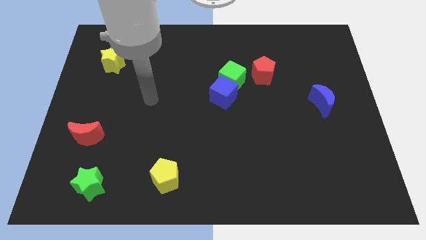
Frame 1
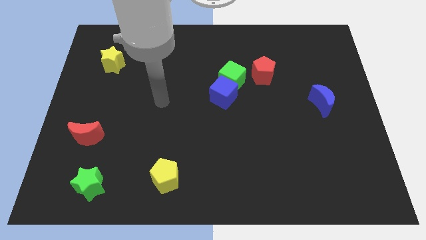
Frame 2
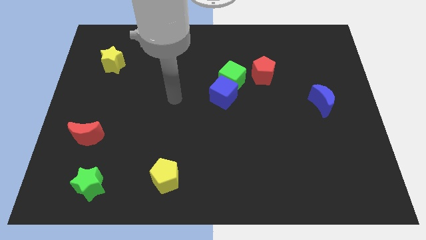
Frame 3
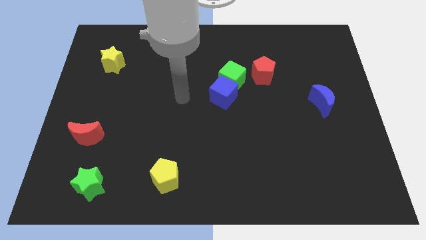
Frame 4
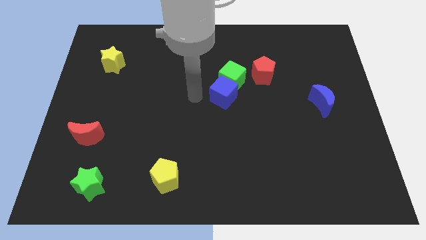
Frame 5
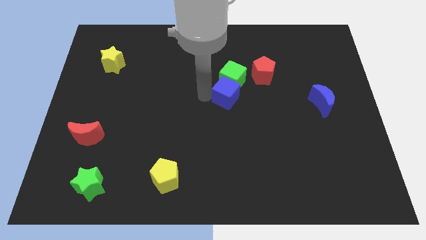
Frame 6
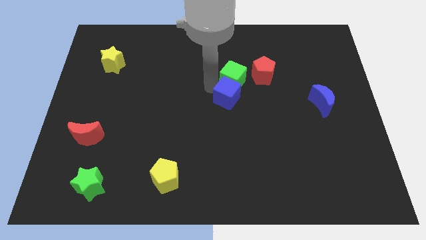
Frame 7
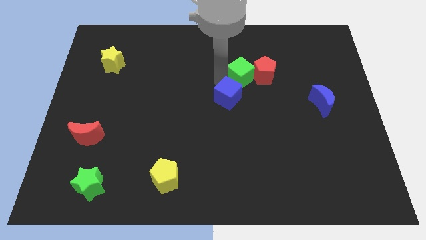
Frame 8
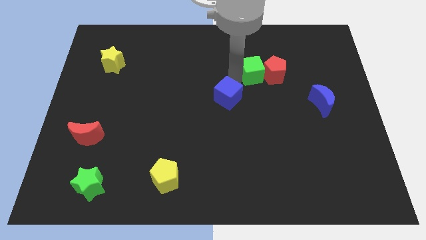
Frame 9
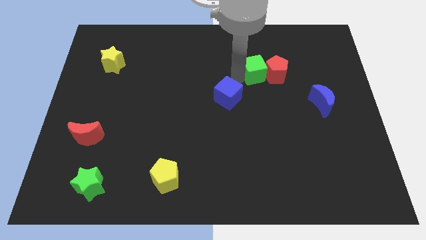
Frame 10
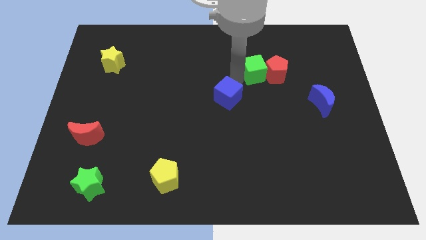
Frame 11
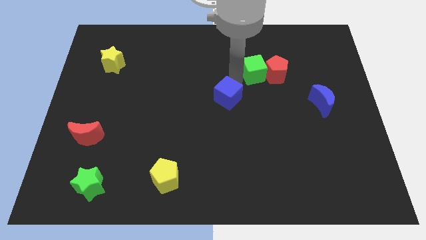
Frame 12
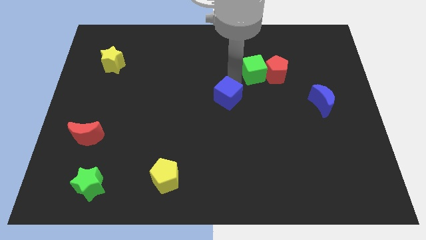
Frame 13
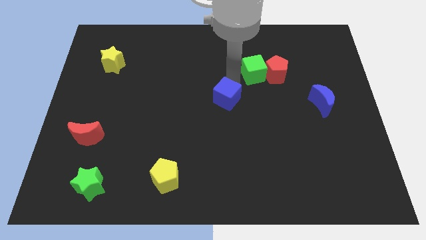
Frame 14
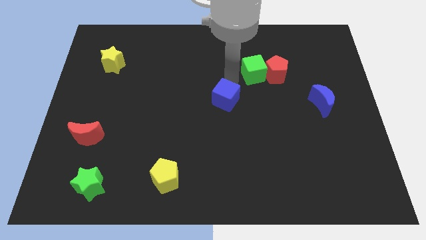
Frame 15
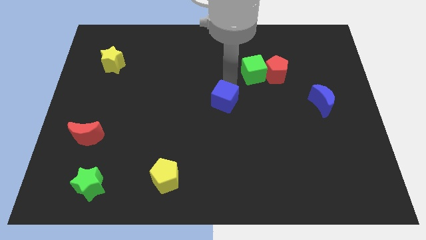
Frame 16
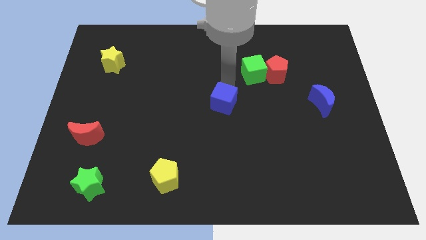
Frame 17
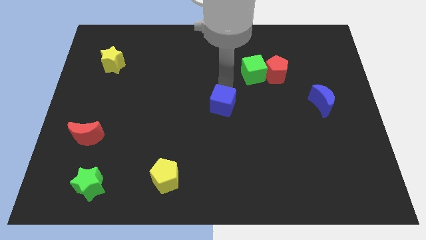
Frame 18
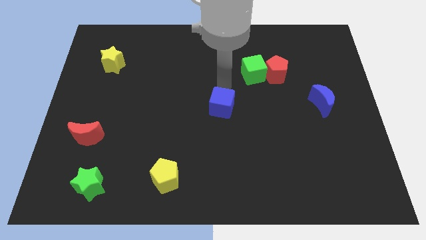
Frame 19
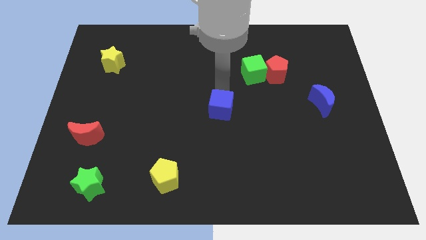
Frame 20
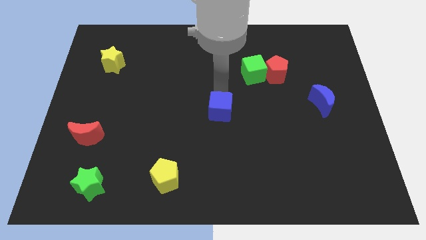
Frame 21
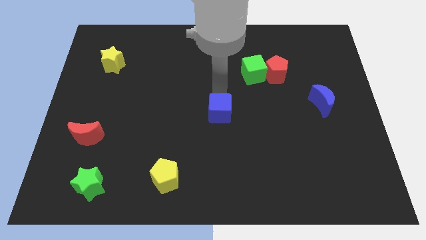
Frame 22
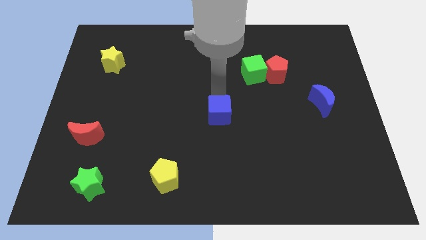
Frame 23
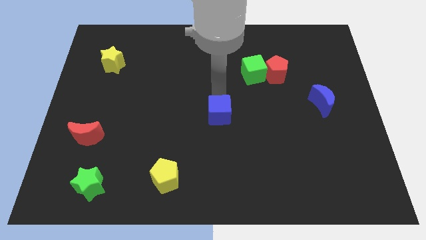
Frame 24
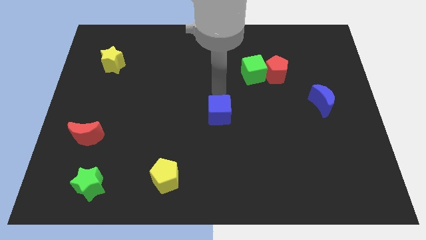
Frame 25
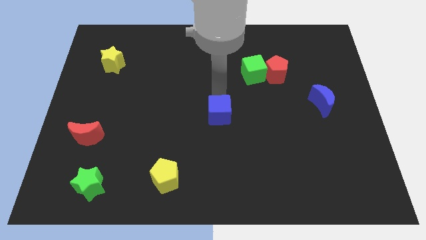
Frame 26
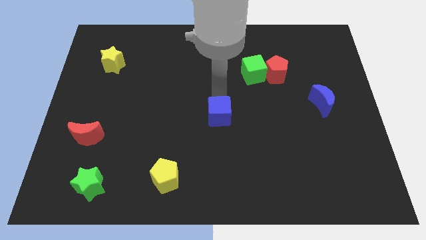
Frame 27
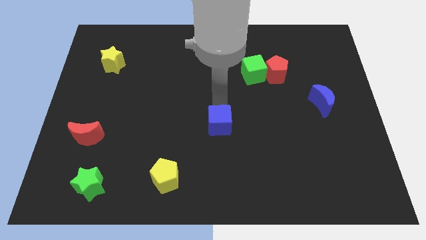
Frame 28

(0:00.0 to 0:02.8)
slightly push the blue cube downwards

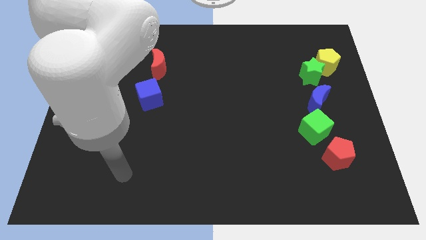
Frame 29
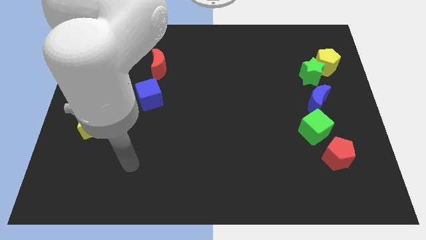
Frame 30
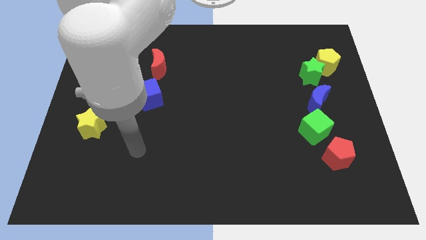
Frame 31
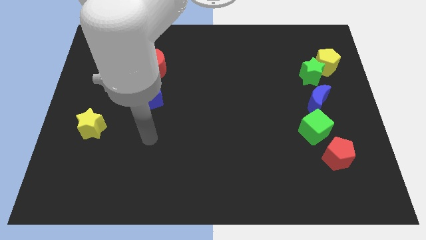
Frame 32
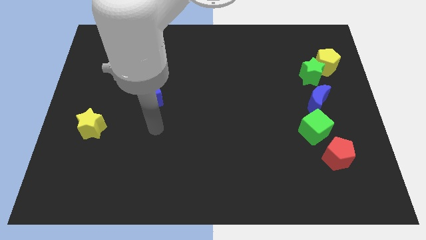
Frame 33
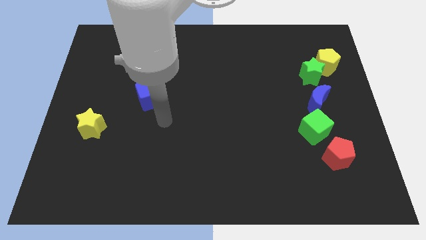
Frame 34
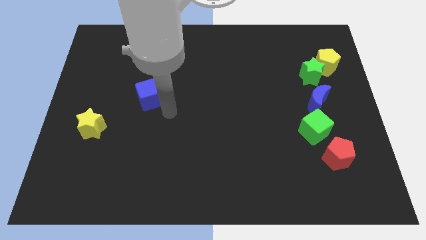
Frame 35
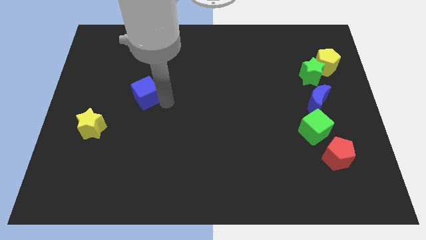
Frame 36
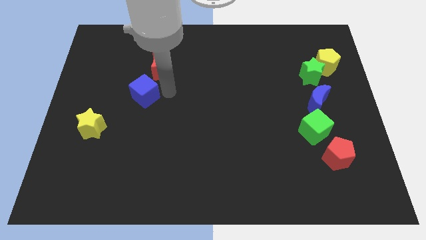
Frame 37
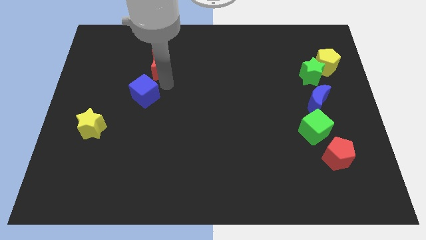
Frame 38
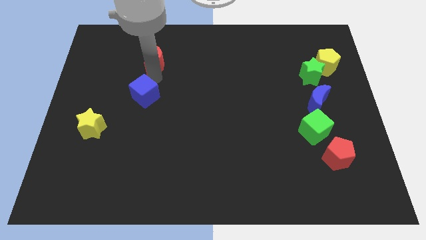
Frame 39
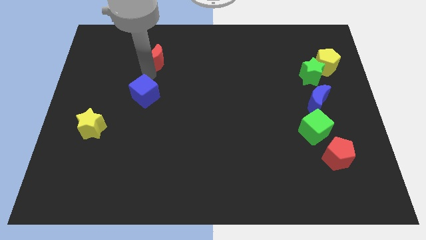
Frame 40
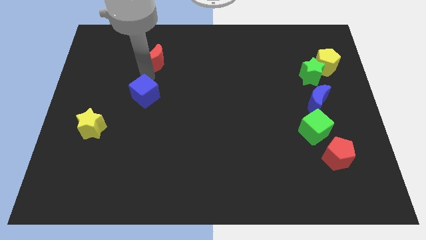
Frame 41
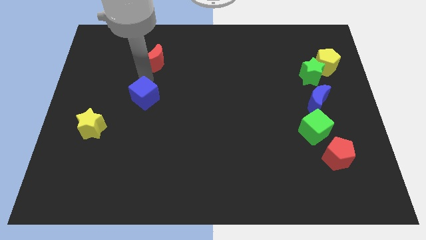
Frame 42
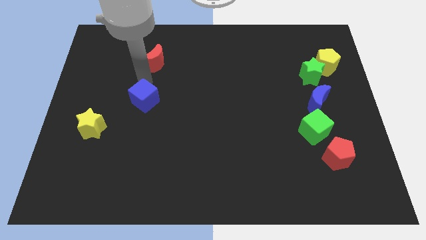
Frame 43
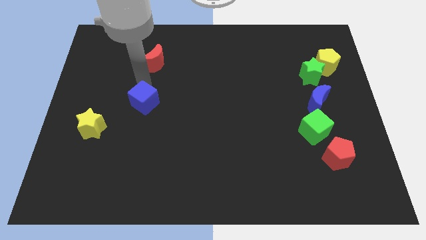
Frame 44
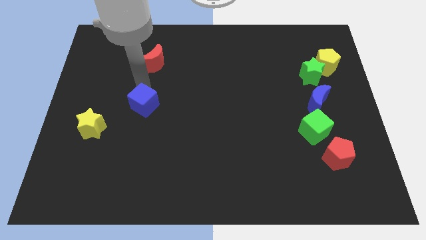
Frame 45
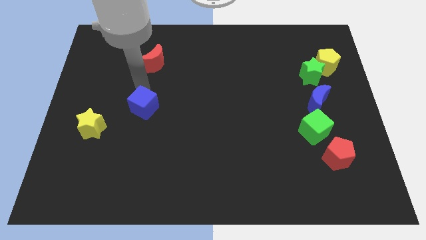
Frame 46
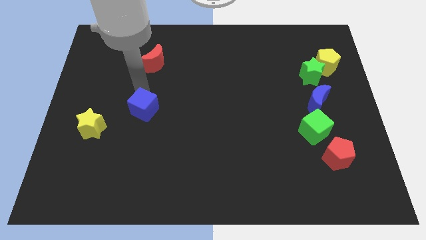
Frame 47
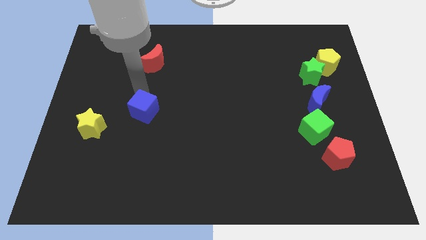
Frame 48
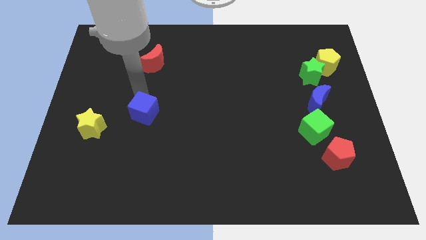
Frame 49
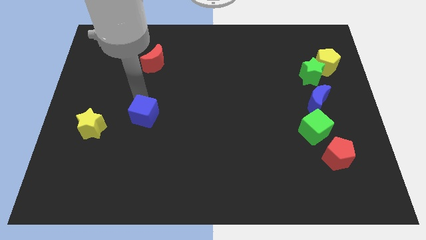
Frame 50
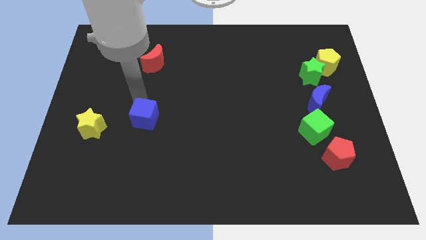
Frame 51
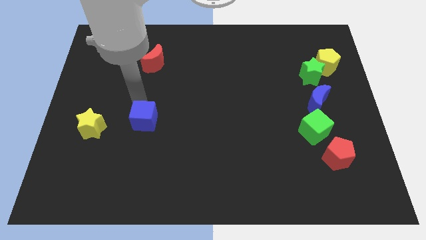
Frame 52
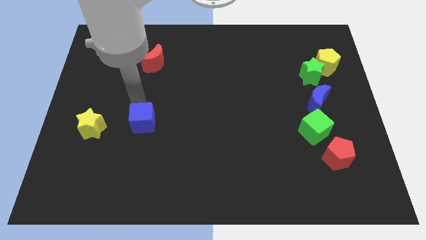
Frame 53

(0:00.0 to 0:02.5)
slide the blue cube down slightly

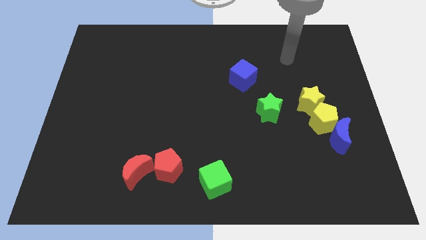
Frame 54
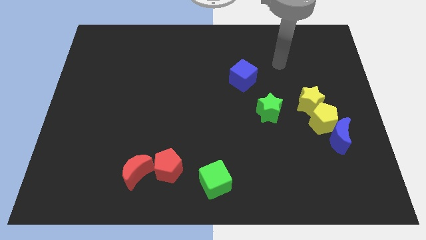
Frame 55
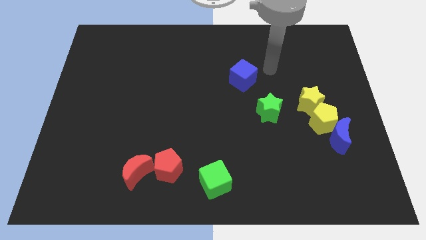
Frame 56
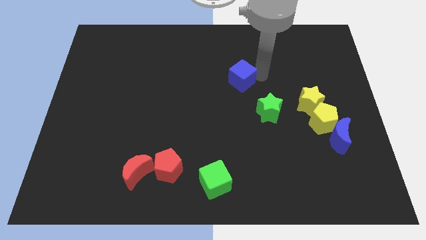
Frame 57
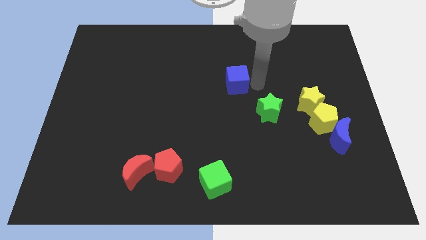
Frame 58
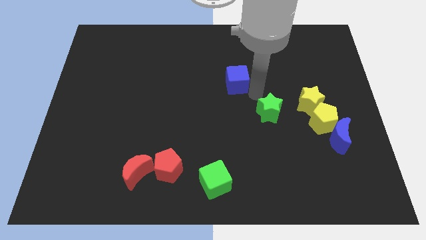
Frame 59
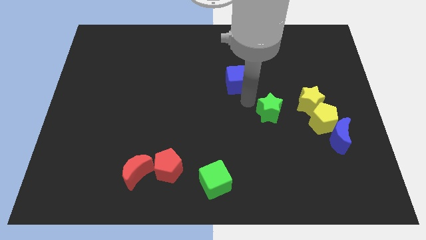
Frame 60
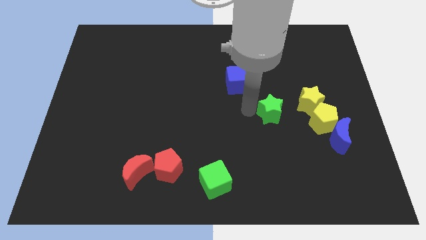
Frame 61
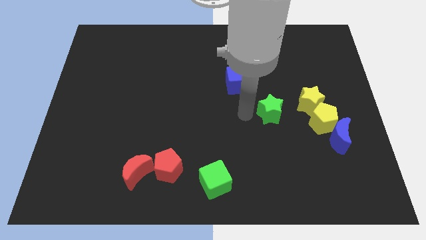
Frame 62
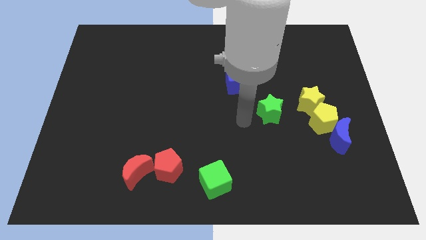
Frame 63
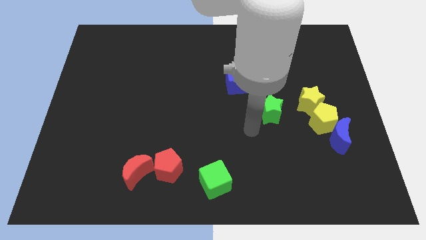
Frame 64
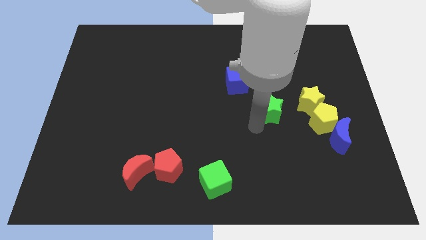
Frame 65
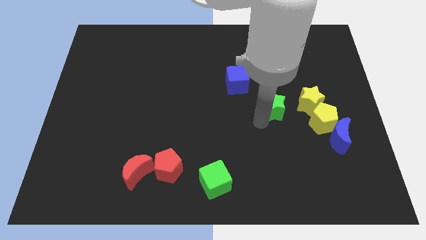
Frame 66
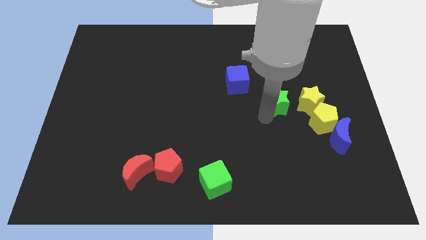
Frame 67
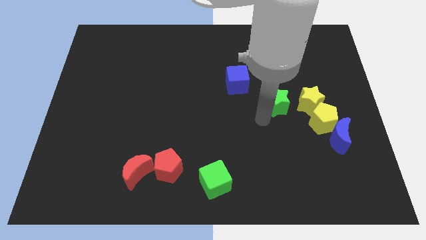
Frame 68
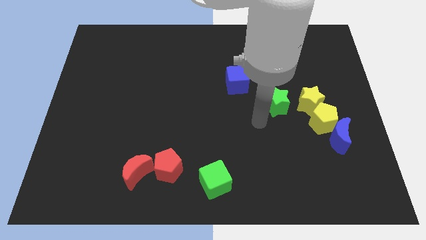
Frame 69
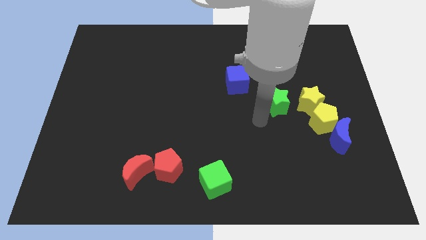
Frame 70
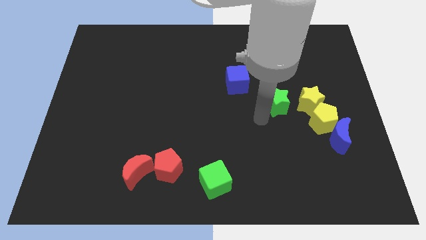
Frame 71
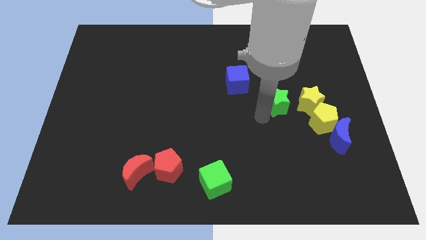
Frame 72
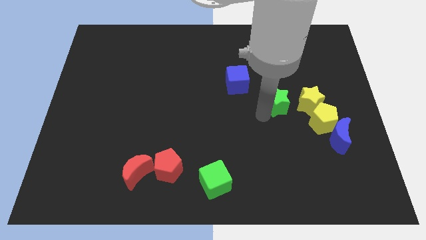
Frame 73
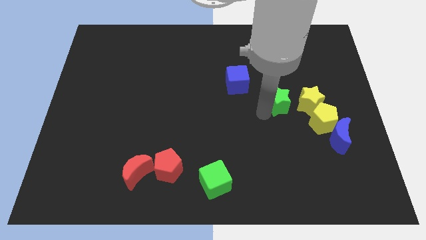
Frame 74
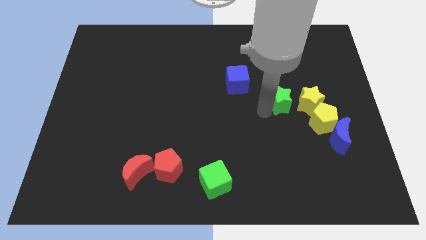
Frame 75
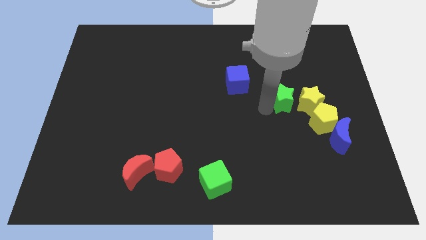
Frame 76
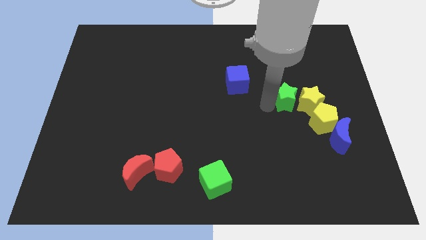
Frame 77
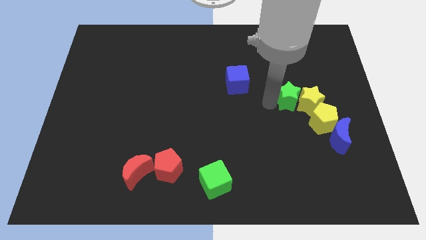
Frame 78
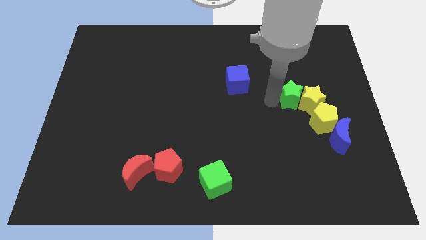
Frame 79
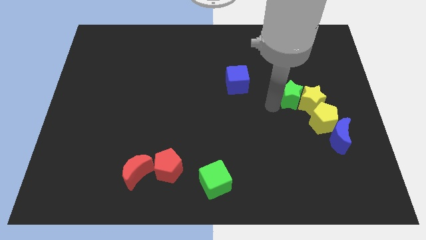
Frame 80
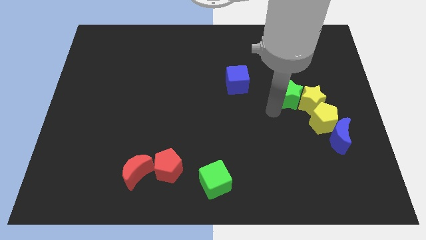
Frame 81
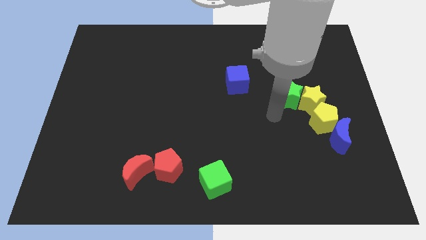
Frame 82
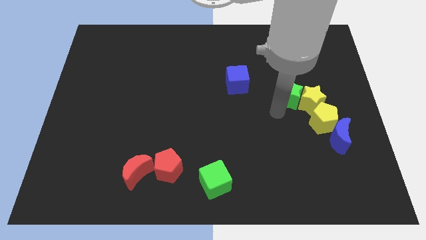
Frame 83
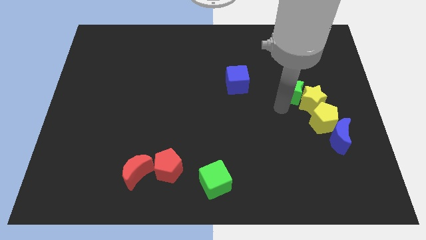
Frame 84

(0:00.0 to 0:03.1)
move the green star a little bit diagonally up and to the right
